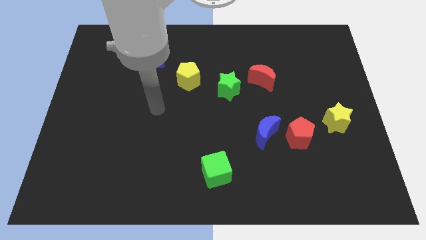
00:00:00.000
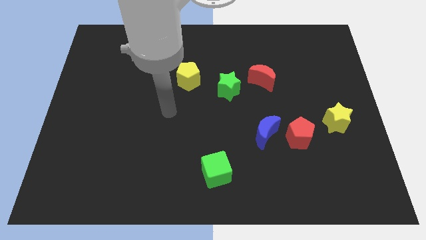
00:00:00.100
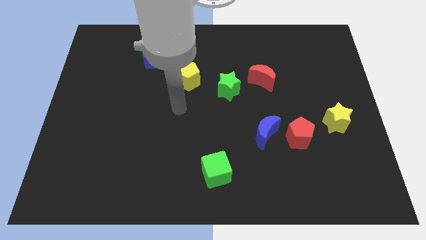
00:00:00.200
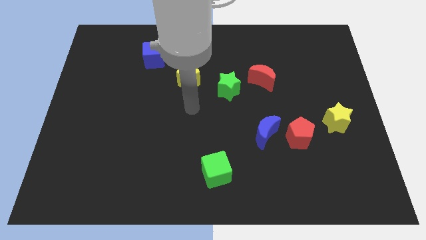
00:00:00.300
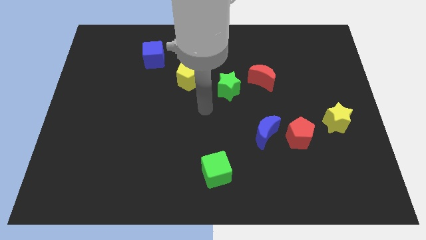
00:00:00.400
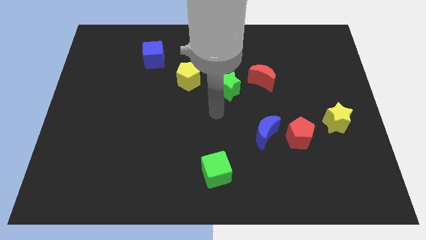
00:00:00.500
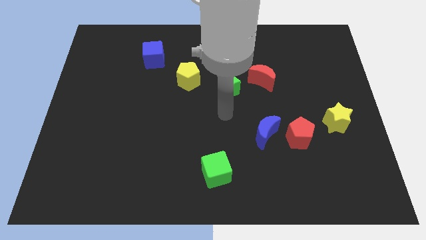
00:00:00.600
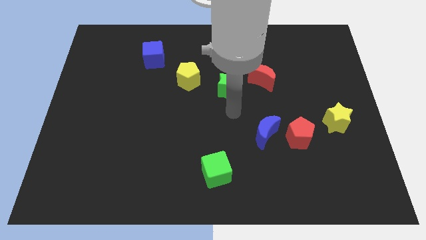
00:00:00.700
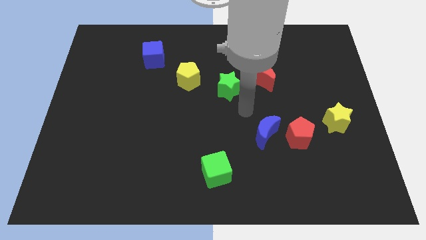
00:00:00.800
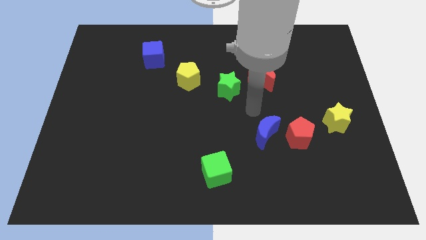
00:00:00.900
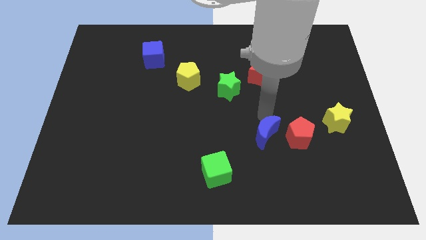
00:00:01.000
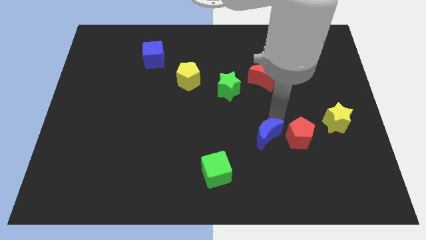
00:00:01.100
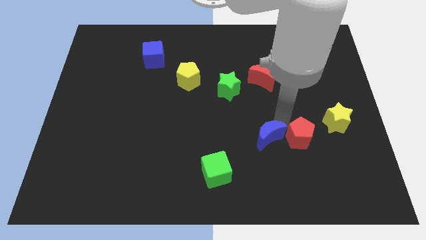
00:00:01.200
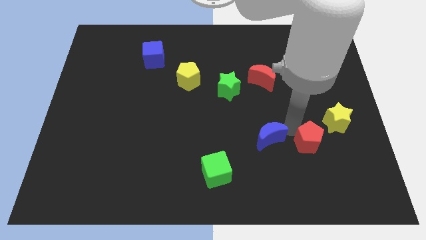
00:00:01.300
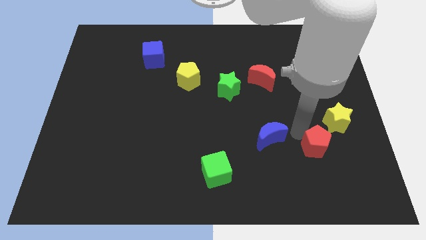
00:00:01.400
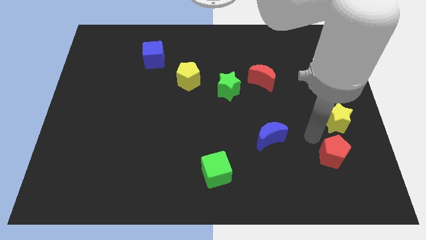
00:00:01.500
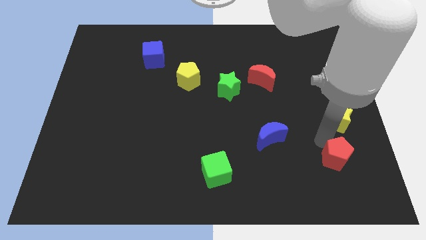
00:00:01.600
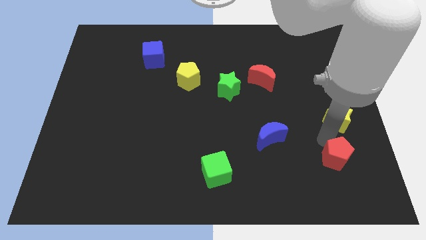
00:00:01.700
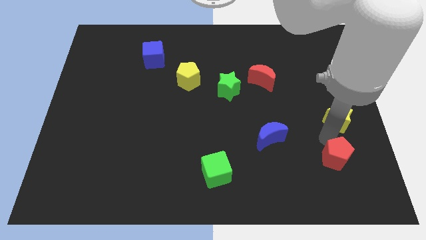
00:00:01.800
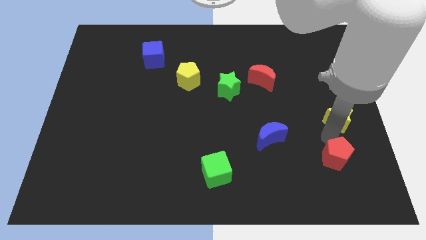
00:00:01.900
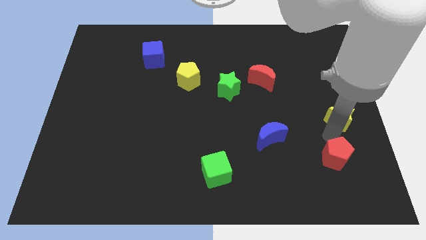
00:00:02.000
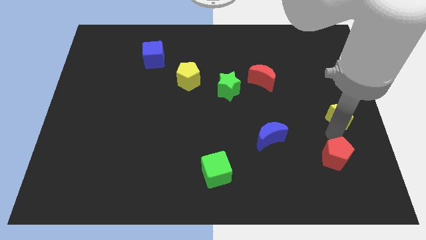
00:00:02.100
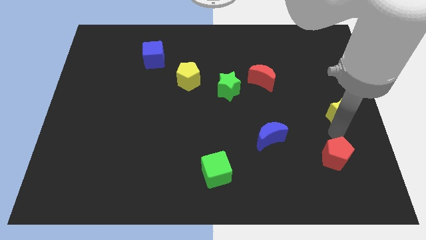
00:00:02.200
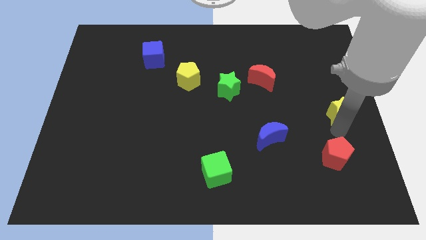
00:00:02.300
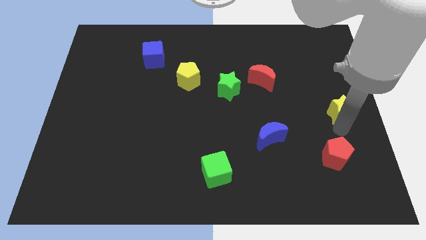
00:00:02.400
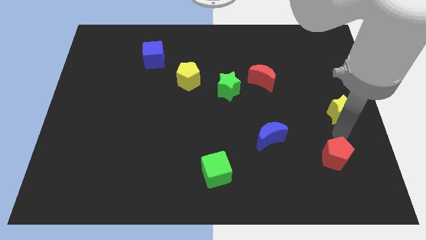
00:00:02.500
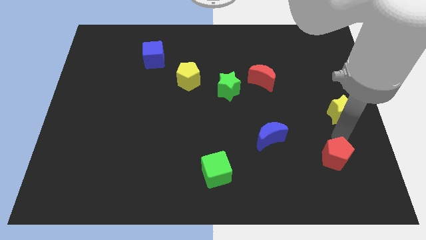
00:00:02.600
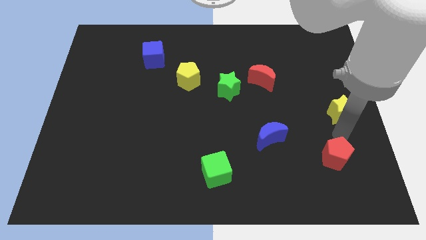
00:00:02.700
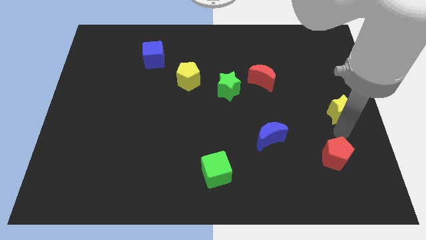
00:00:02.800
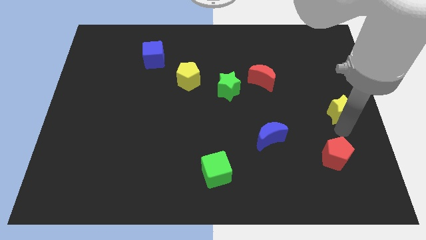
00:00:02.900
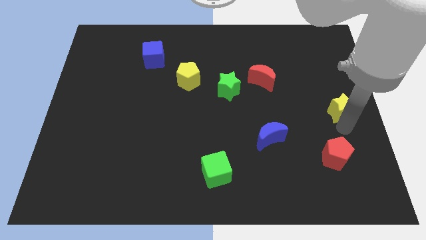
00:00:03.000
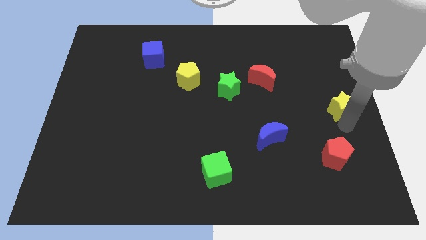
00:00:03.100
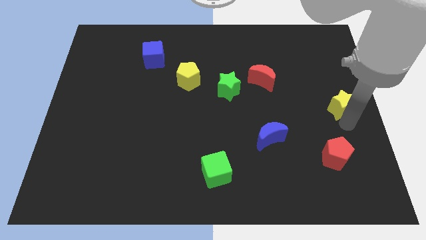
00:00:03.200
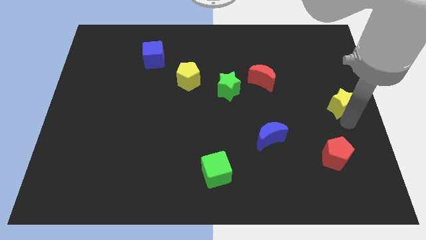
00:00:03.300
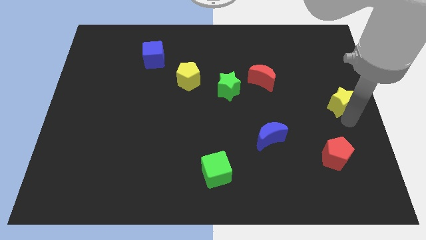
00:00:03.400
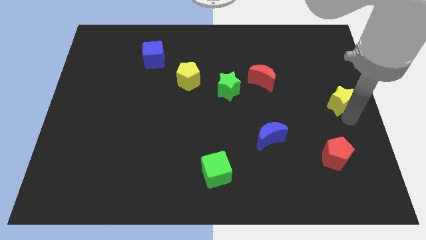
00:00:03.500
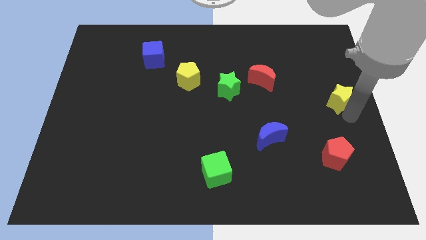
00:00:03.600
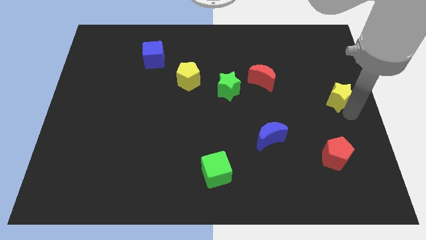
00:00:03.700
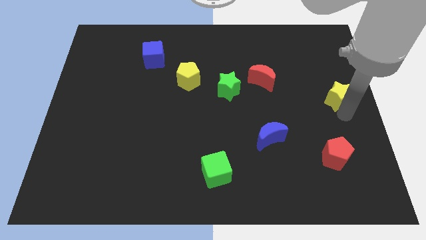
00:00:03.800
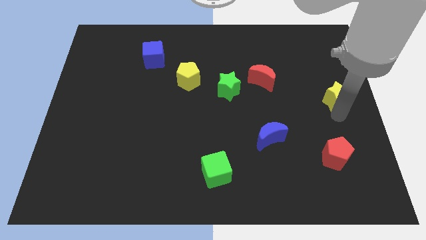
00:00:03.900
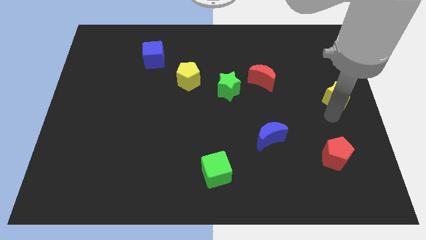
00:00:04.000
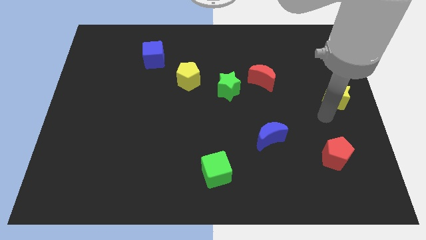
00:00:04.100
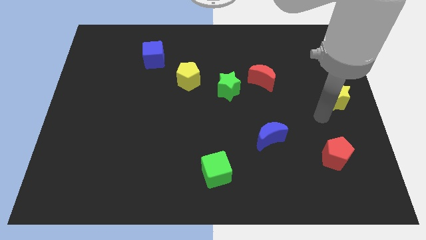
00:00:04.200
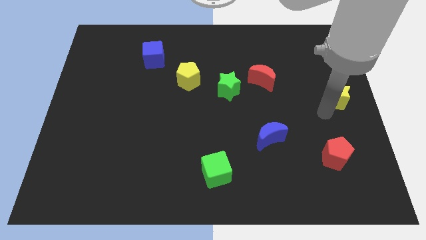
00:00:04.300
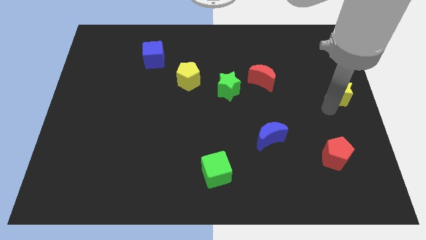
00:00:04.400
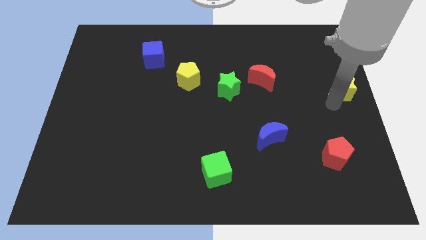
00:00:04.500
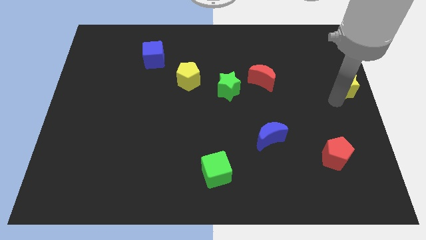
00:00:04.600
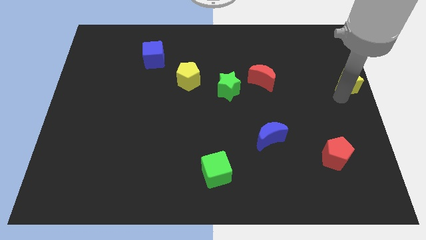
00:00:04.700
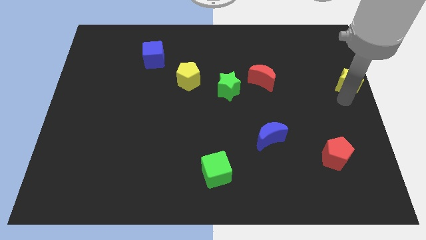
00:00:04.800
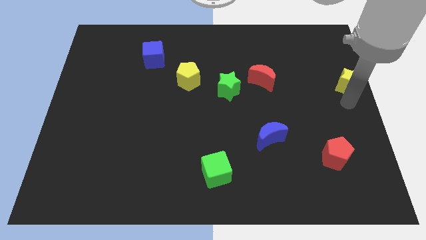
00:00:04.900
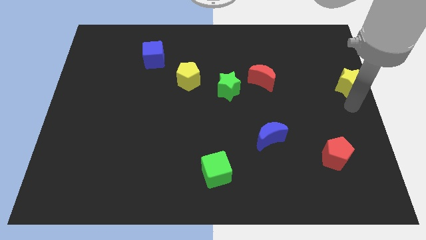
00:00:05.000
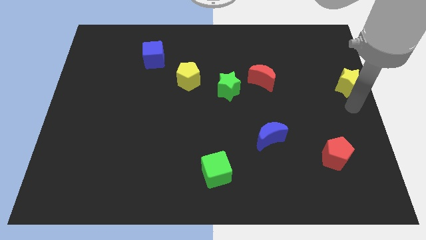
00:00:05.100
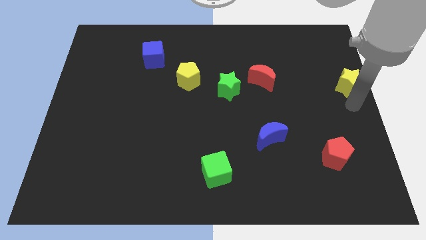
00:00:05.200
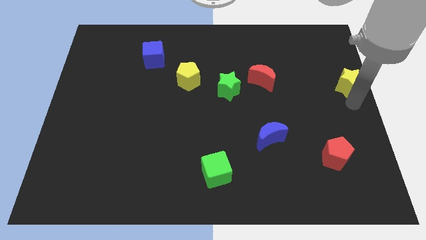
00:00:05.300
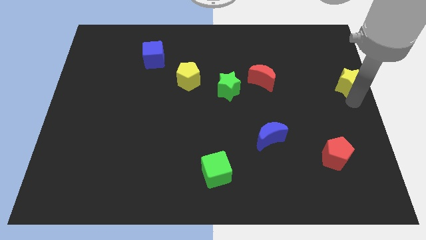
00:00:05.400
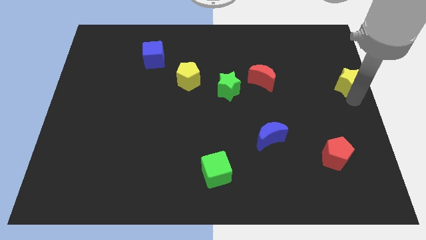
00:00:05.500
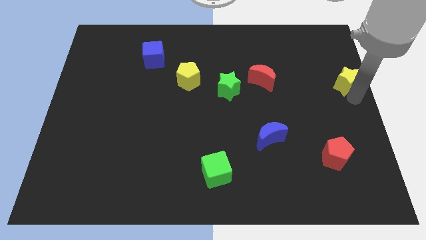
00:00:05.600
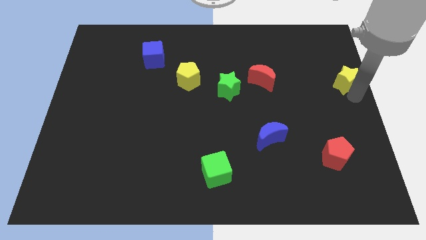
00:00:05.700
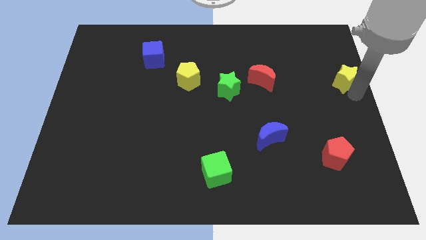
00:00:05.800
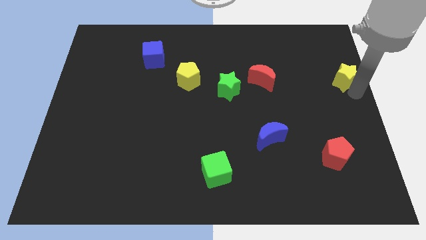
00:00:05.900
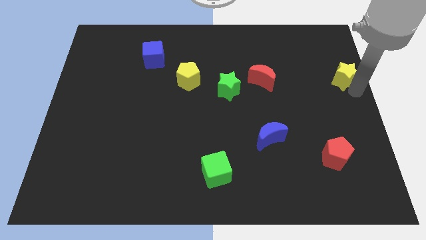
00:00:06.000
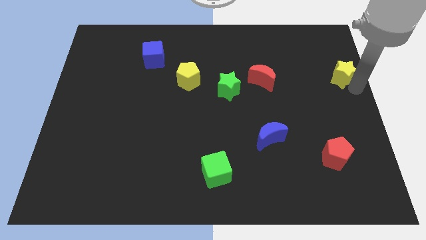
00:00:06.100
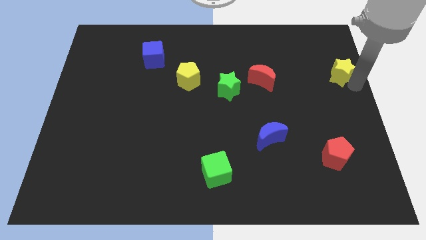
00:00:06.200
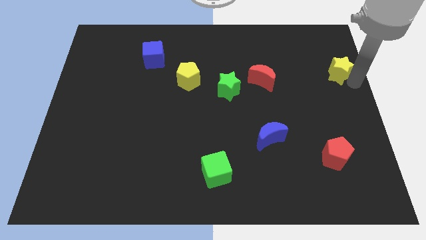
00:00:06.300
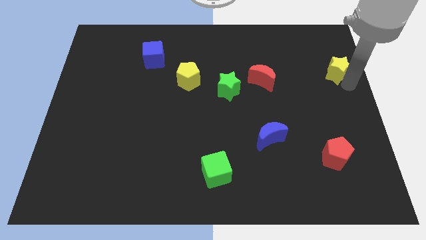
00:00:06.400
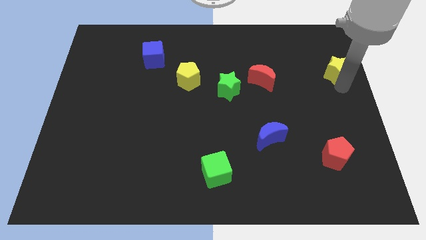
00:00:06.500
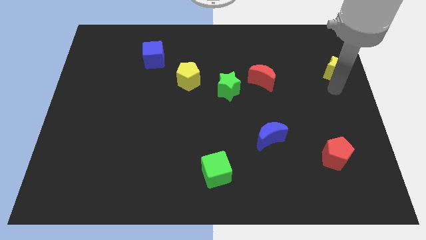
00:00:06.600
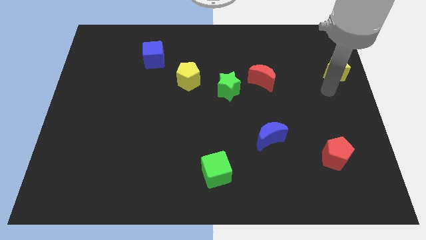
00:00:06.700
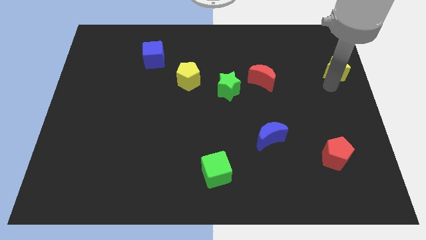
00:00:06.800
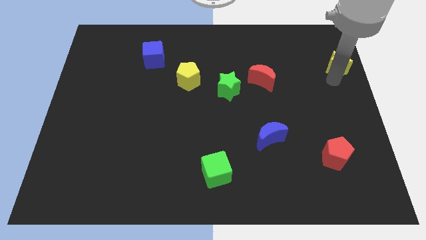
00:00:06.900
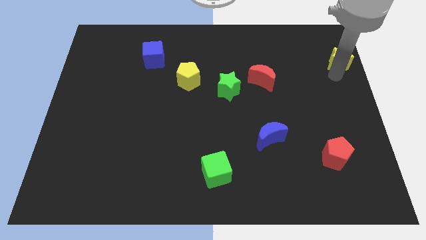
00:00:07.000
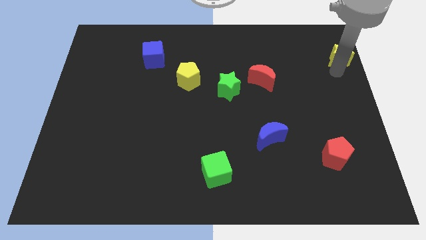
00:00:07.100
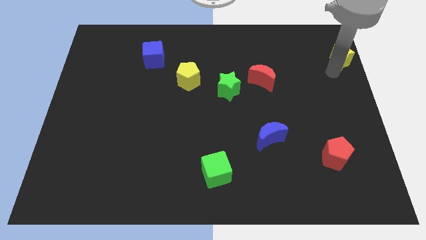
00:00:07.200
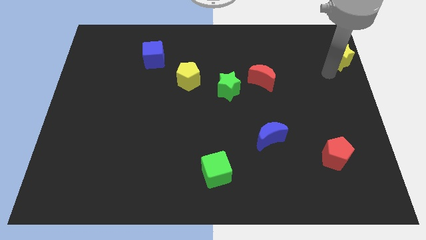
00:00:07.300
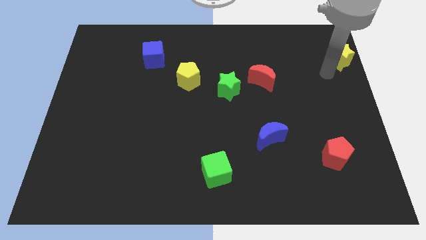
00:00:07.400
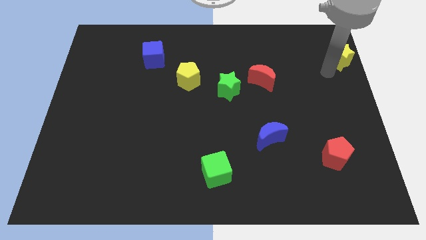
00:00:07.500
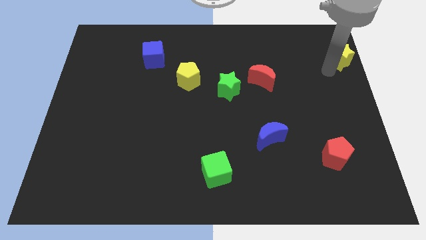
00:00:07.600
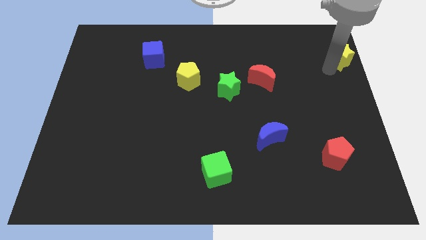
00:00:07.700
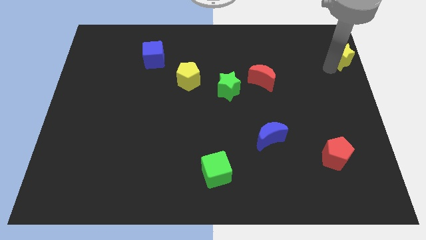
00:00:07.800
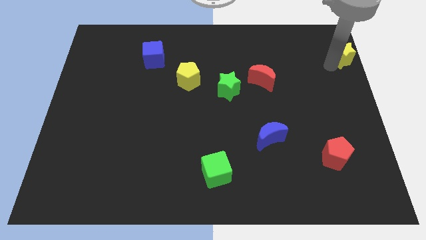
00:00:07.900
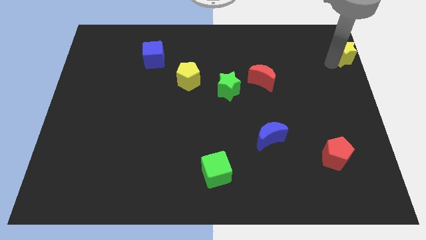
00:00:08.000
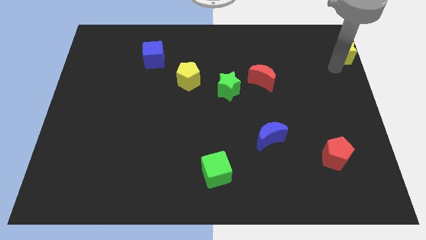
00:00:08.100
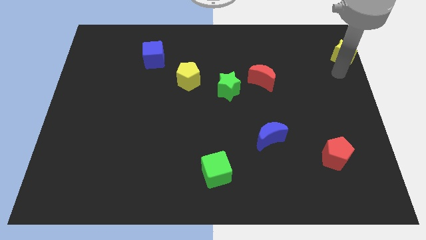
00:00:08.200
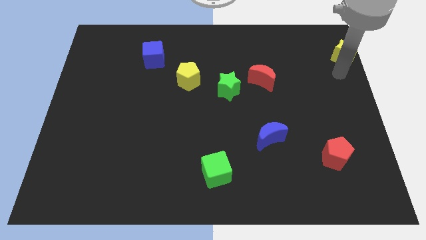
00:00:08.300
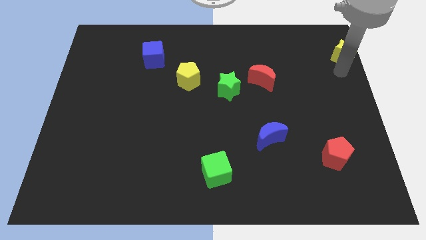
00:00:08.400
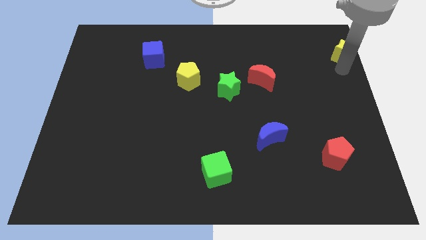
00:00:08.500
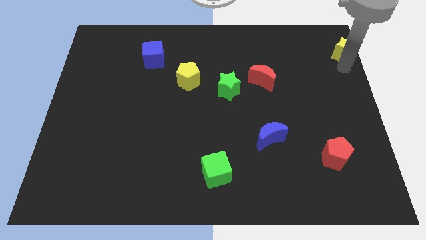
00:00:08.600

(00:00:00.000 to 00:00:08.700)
slide the yellow star to the top right
